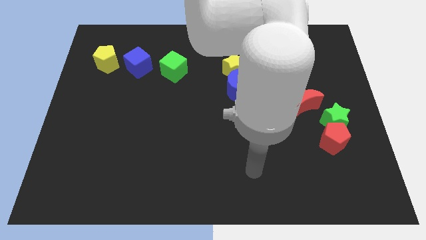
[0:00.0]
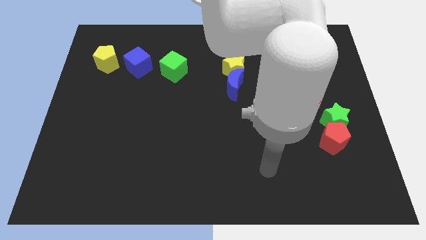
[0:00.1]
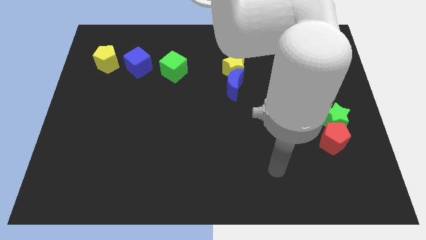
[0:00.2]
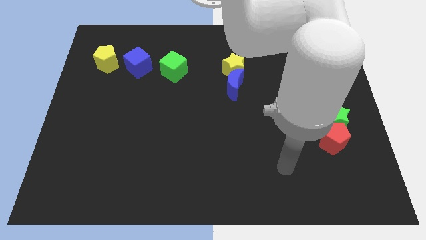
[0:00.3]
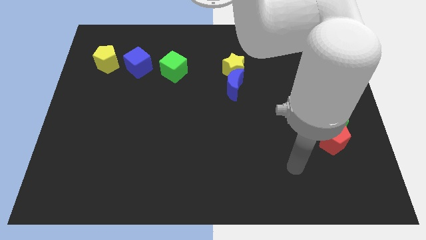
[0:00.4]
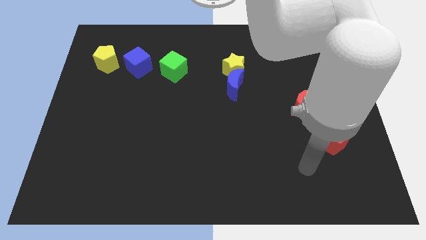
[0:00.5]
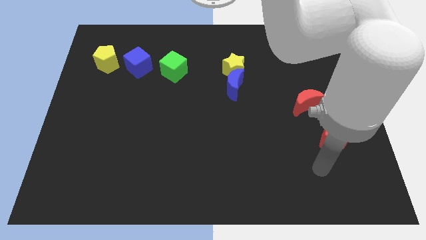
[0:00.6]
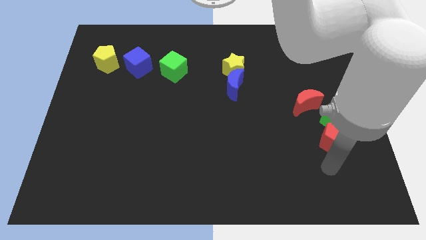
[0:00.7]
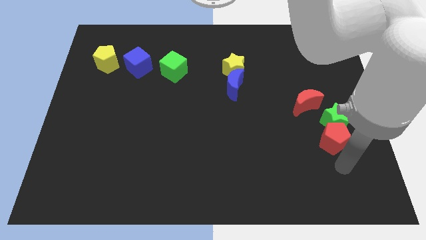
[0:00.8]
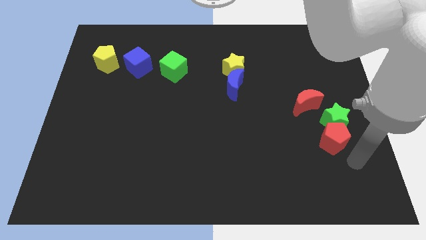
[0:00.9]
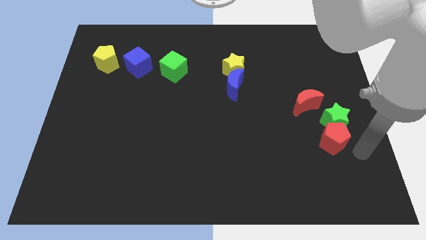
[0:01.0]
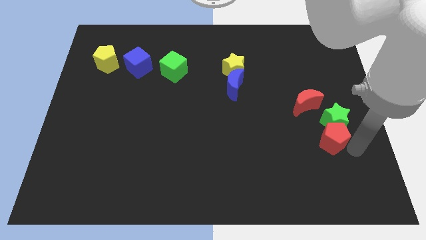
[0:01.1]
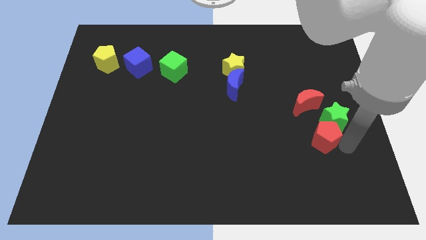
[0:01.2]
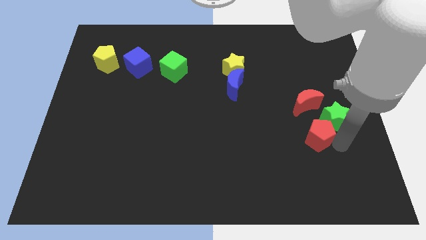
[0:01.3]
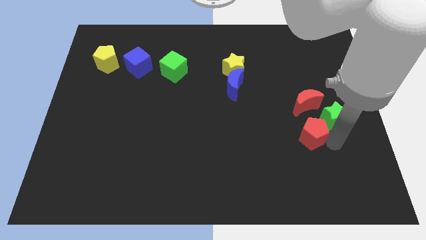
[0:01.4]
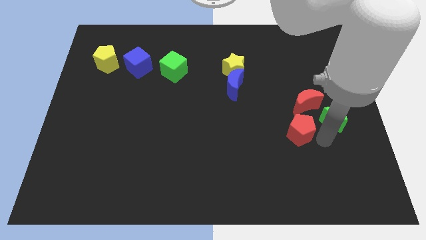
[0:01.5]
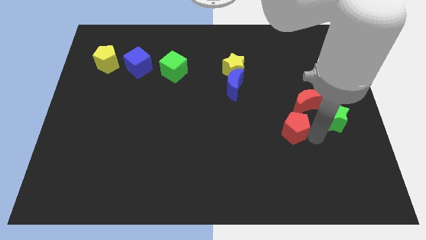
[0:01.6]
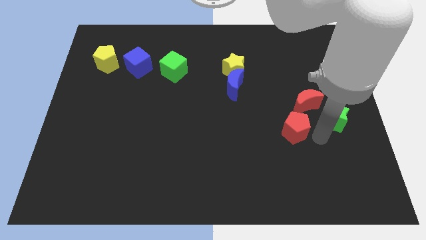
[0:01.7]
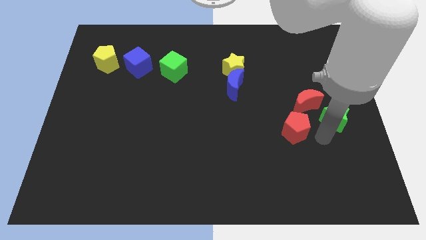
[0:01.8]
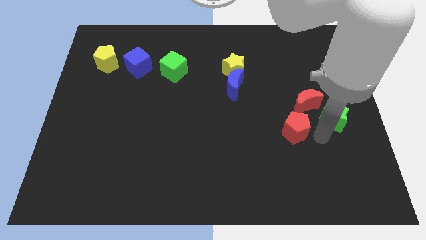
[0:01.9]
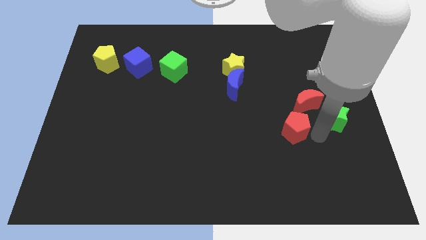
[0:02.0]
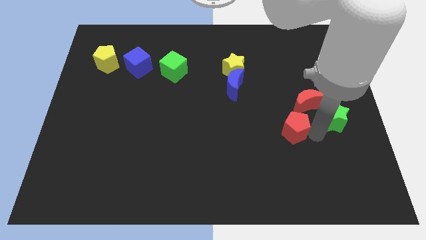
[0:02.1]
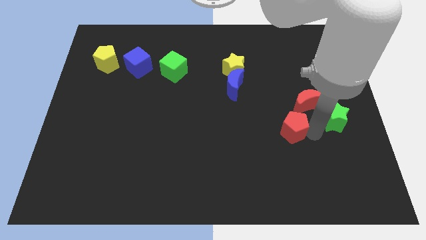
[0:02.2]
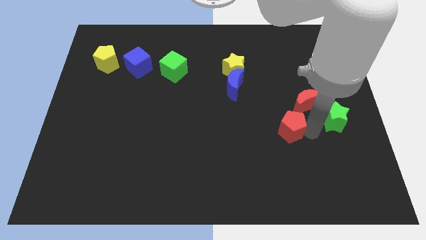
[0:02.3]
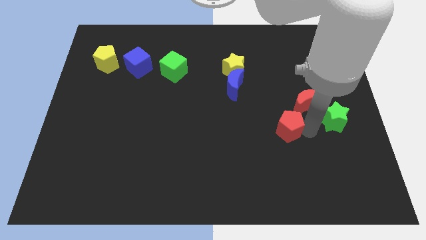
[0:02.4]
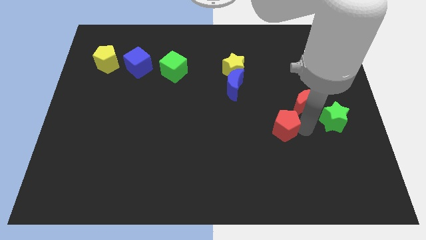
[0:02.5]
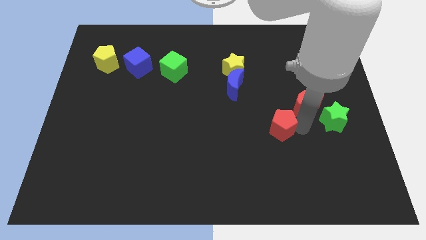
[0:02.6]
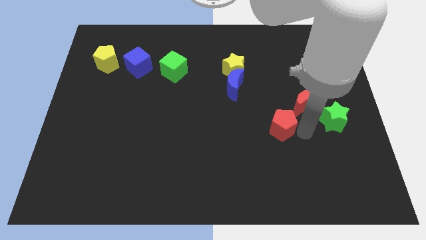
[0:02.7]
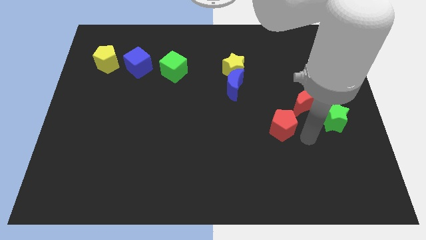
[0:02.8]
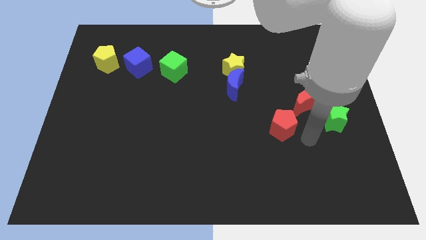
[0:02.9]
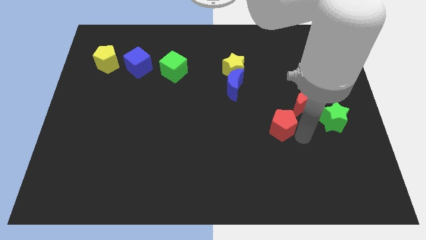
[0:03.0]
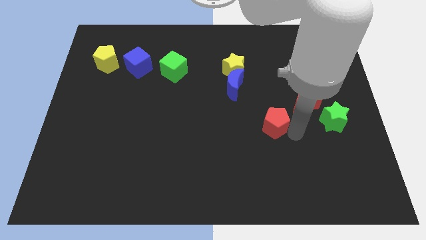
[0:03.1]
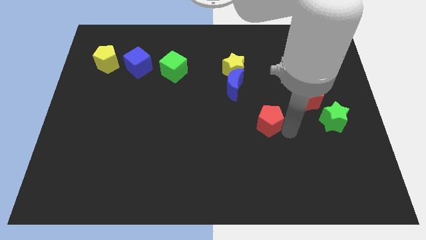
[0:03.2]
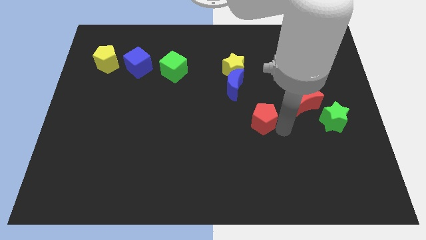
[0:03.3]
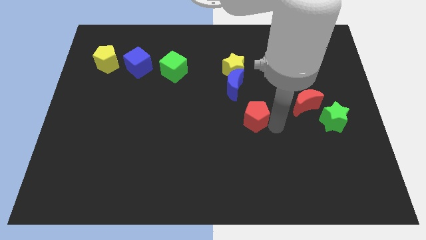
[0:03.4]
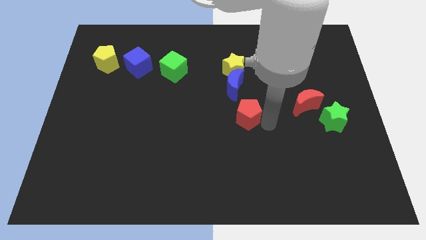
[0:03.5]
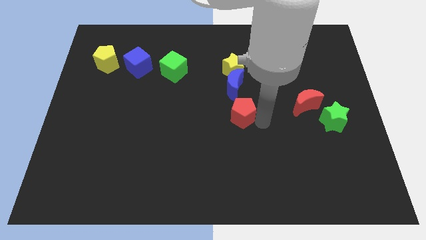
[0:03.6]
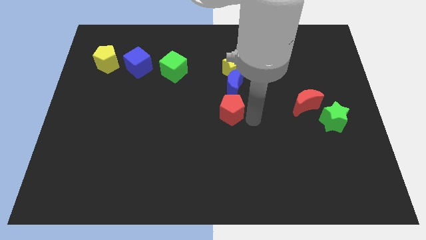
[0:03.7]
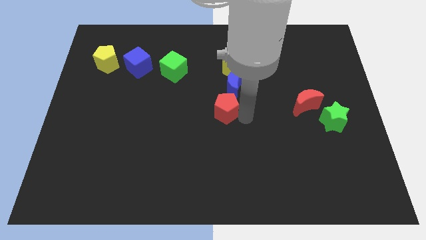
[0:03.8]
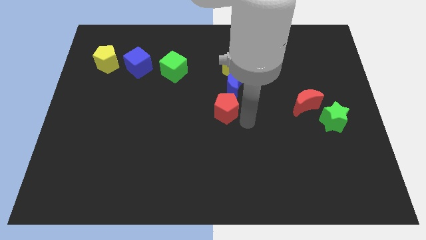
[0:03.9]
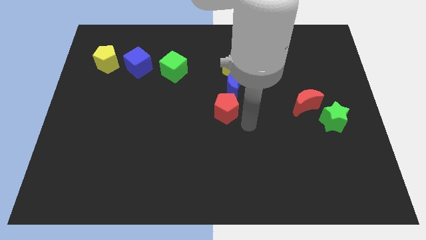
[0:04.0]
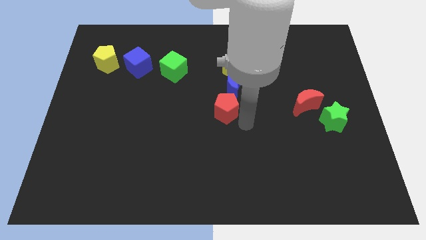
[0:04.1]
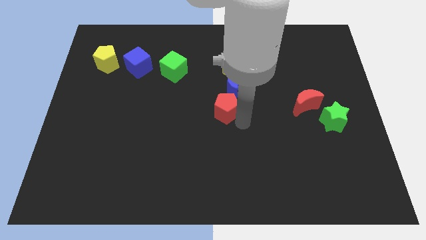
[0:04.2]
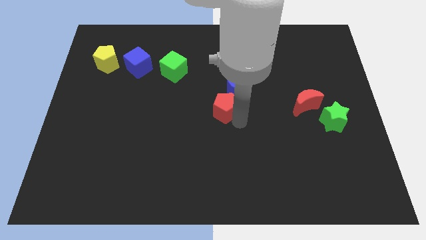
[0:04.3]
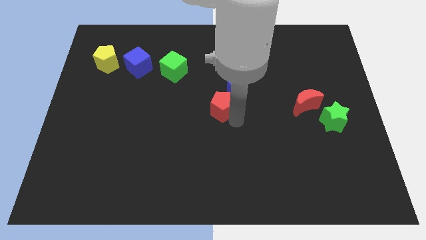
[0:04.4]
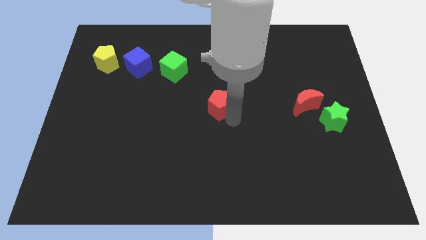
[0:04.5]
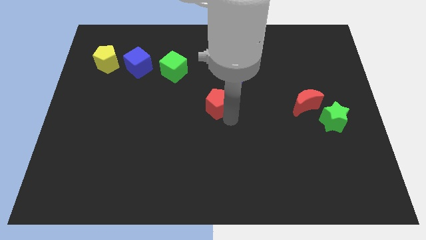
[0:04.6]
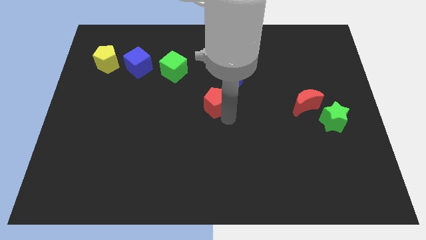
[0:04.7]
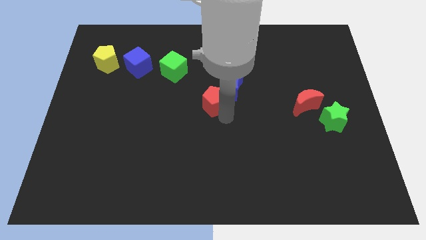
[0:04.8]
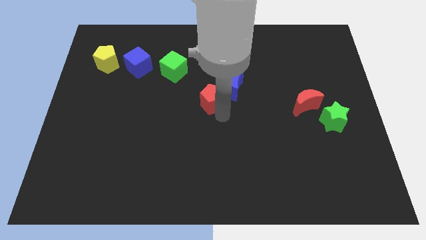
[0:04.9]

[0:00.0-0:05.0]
move the red pentagon to the left side of the blue moon

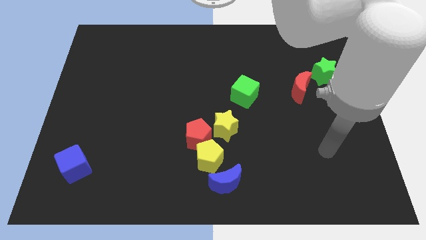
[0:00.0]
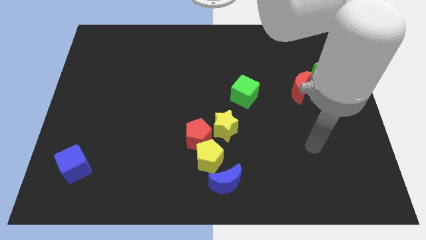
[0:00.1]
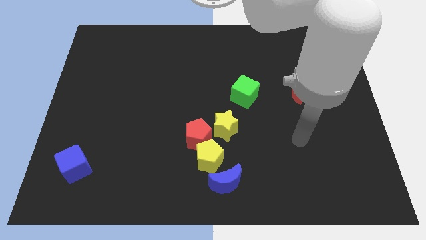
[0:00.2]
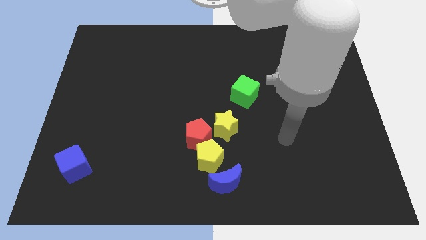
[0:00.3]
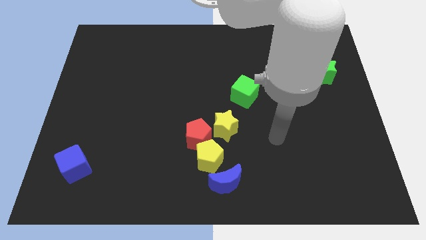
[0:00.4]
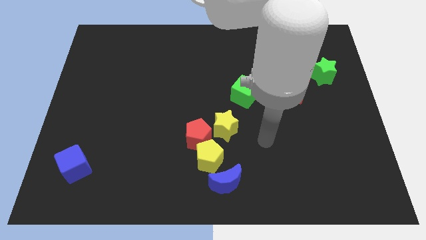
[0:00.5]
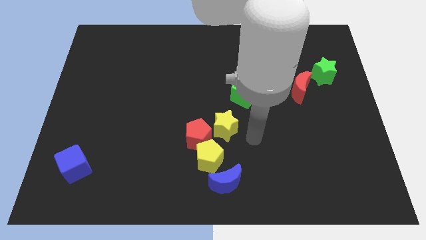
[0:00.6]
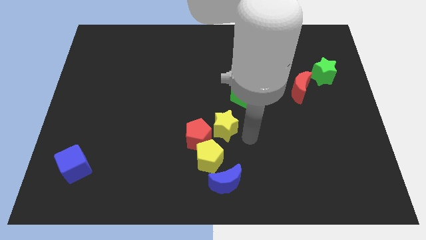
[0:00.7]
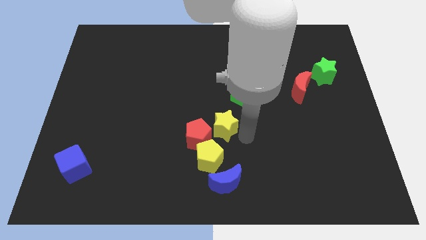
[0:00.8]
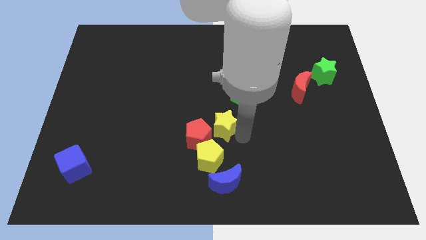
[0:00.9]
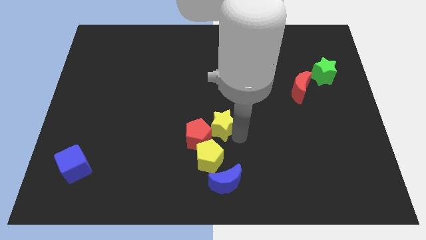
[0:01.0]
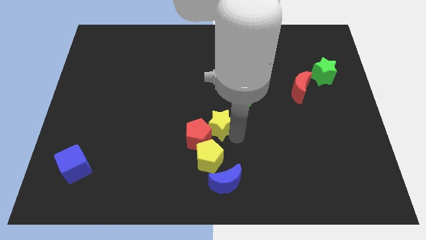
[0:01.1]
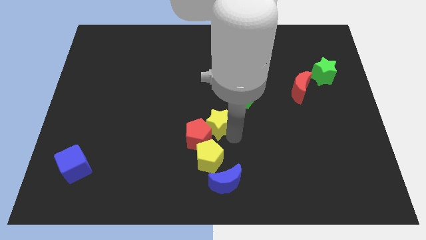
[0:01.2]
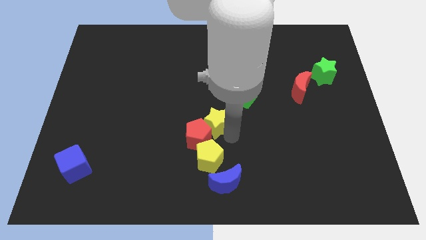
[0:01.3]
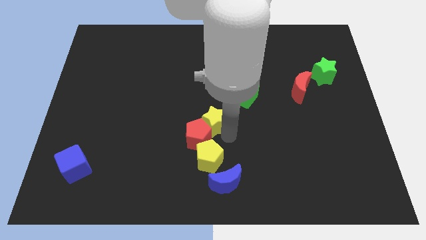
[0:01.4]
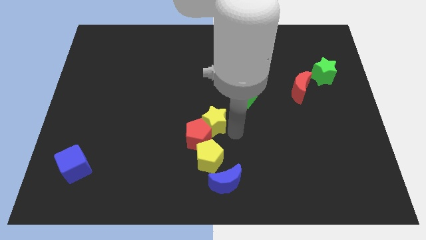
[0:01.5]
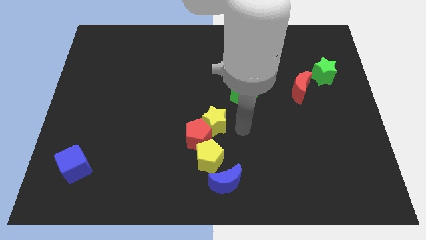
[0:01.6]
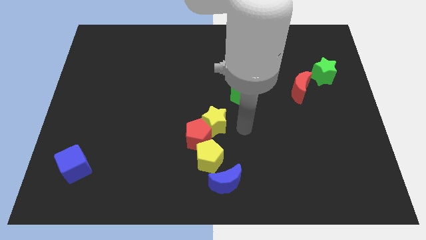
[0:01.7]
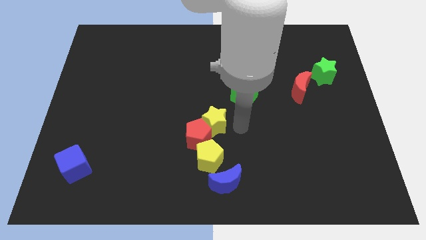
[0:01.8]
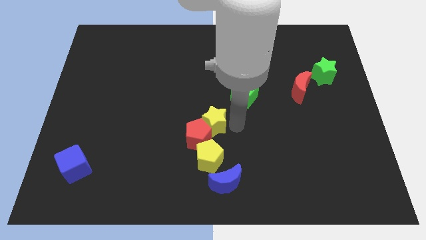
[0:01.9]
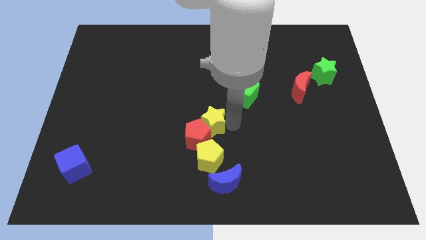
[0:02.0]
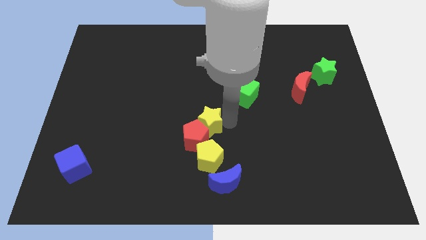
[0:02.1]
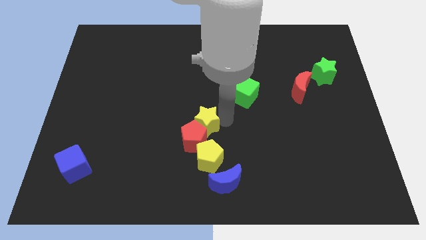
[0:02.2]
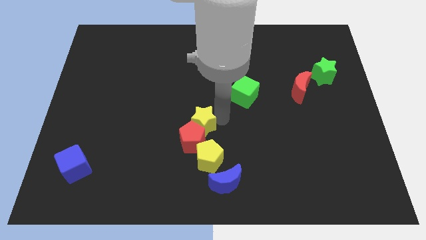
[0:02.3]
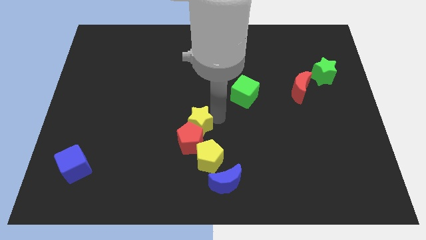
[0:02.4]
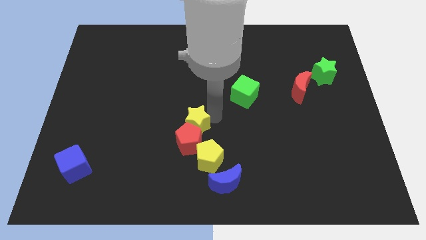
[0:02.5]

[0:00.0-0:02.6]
move the yellow star to the top left side of the red pentagon
